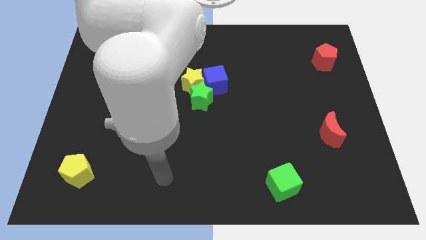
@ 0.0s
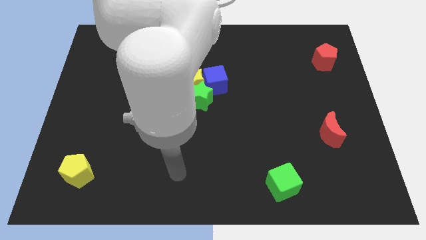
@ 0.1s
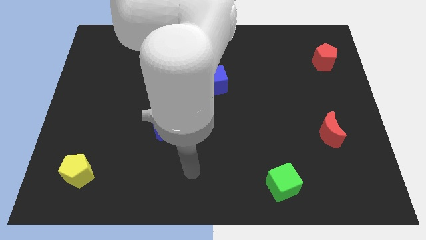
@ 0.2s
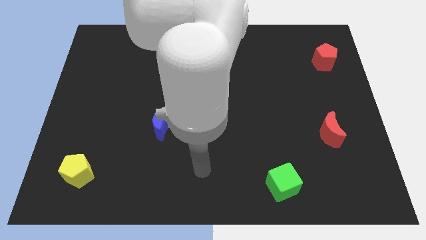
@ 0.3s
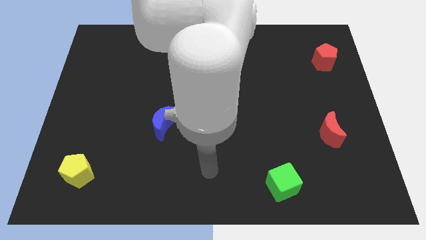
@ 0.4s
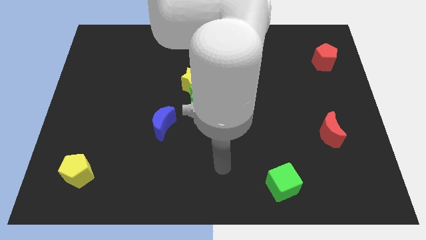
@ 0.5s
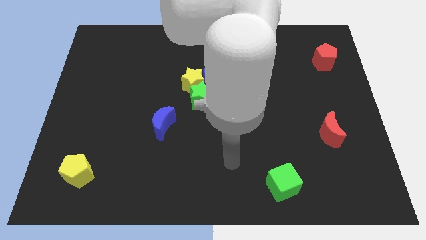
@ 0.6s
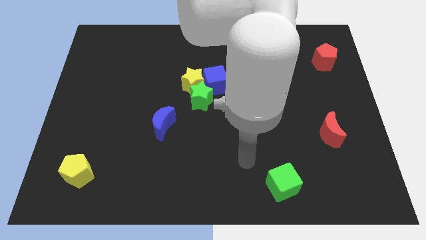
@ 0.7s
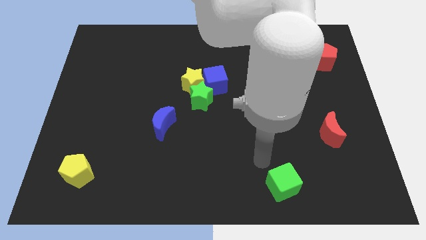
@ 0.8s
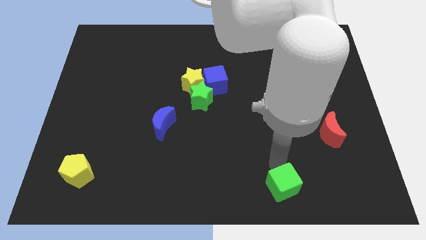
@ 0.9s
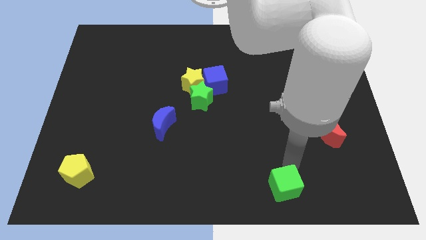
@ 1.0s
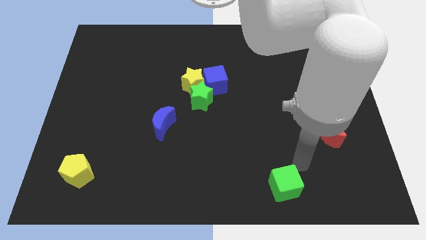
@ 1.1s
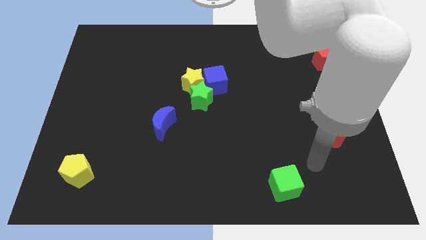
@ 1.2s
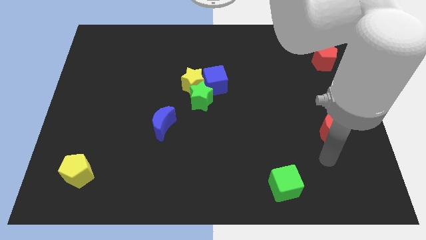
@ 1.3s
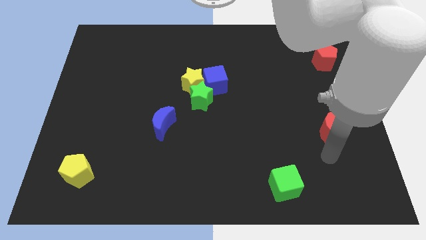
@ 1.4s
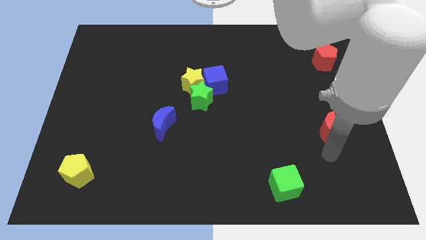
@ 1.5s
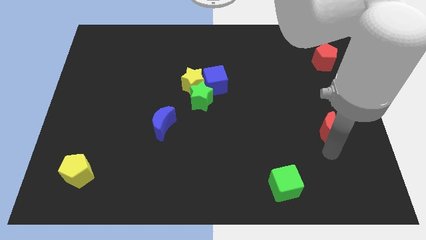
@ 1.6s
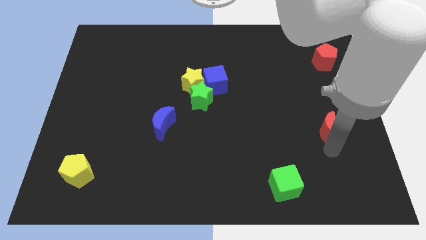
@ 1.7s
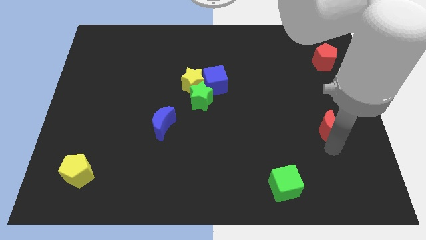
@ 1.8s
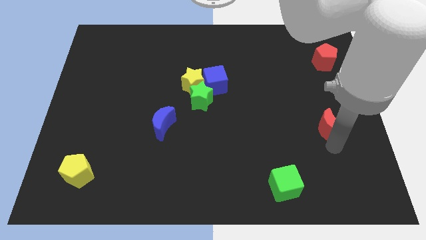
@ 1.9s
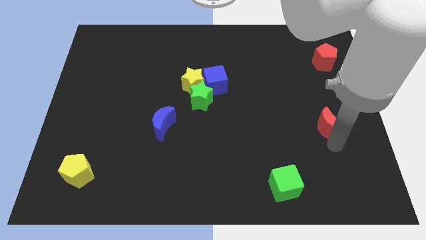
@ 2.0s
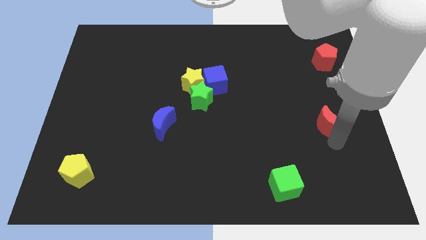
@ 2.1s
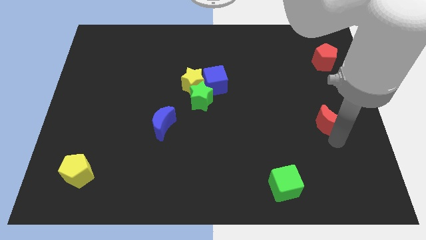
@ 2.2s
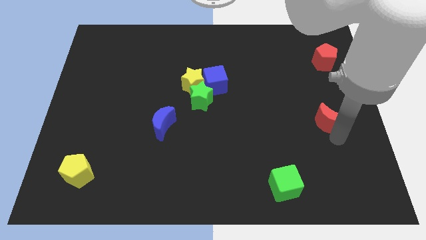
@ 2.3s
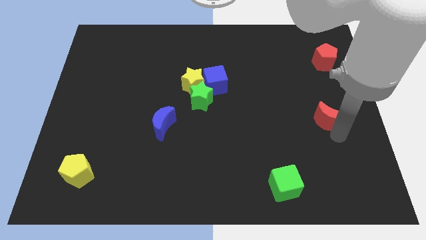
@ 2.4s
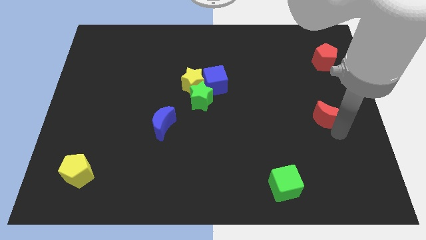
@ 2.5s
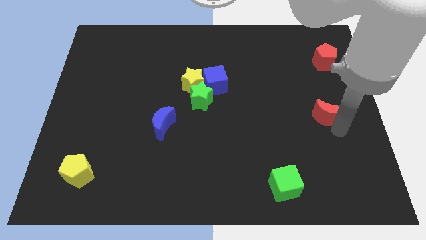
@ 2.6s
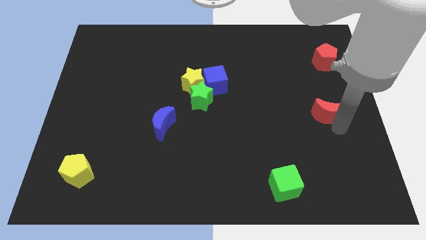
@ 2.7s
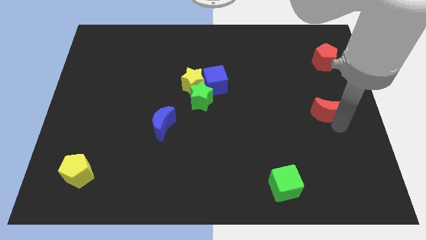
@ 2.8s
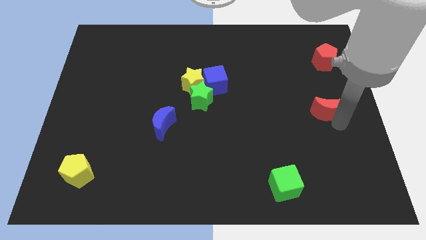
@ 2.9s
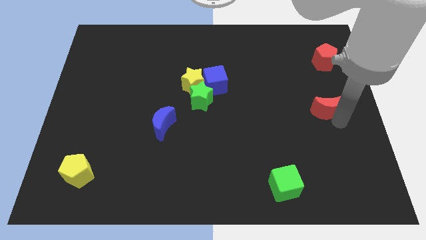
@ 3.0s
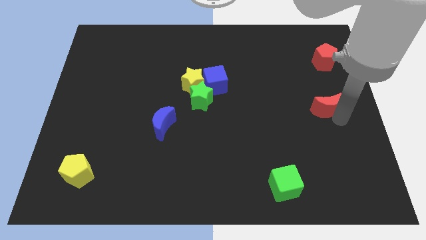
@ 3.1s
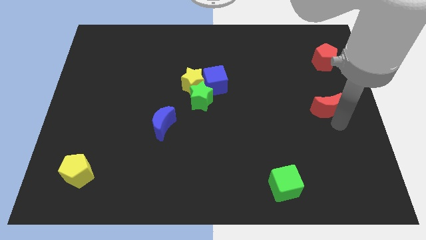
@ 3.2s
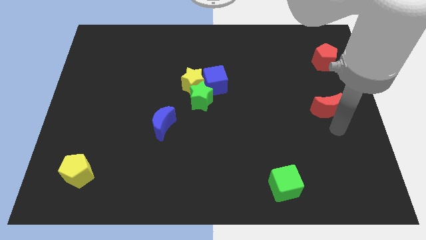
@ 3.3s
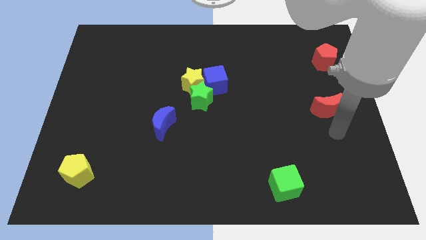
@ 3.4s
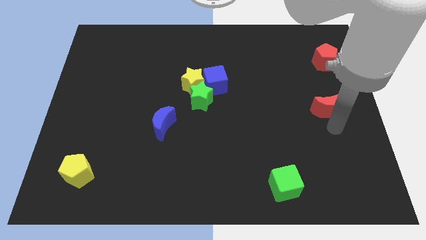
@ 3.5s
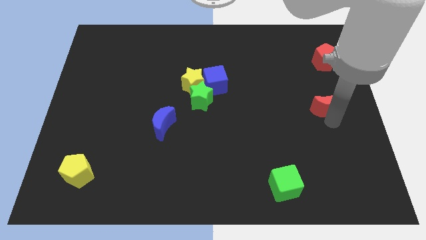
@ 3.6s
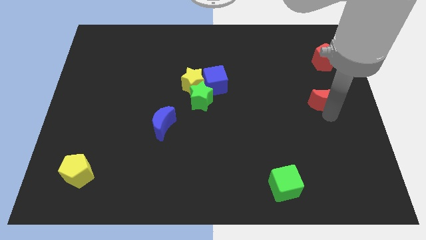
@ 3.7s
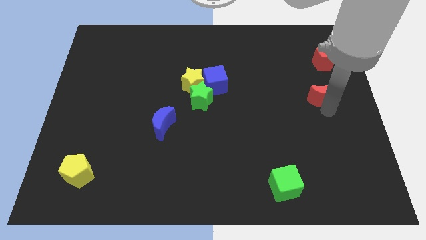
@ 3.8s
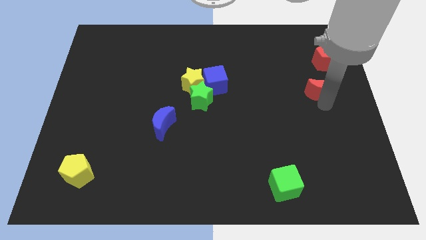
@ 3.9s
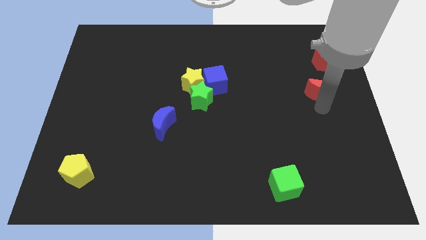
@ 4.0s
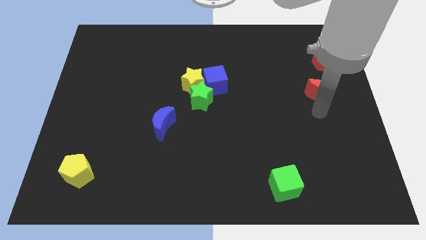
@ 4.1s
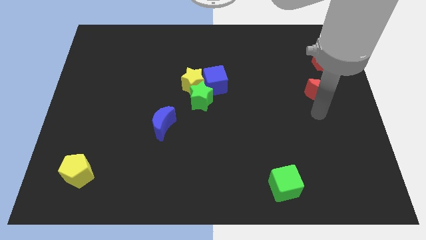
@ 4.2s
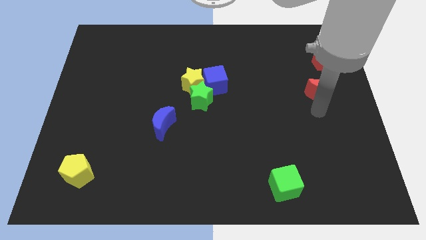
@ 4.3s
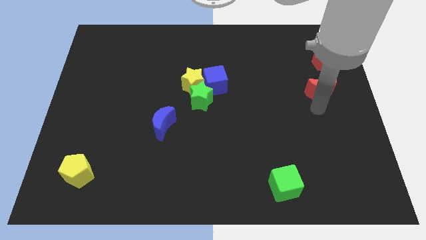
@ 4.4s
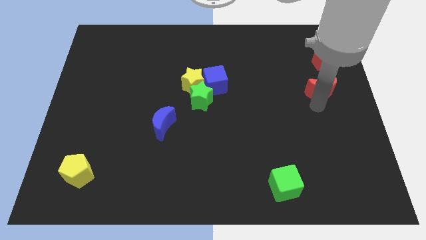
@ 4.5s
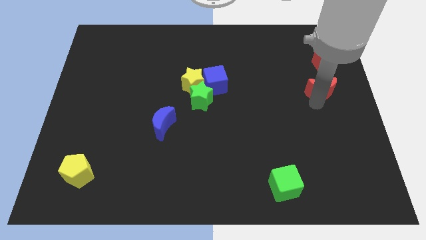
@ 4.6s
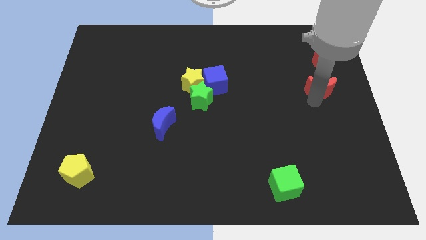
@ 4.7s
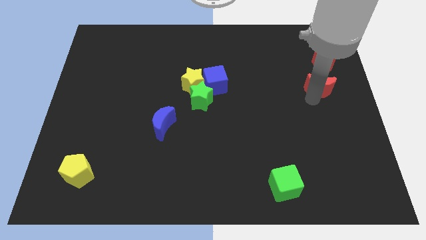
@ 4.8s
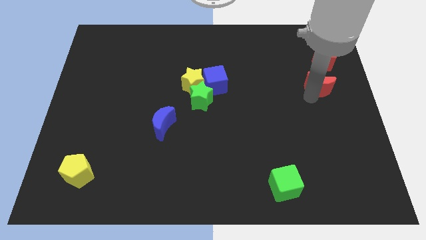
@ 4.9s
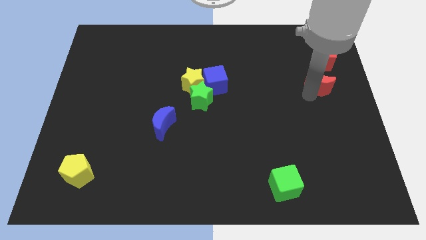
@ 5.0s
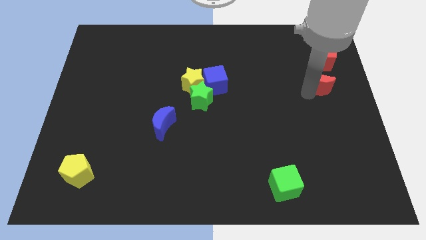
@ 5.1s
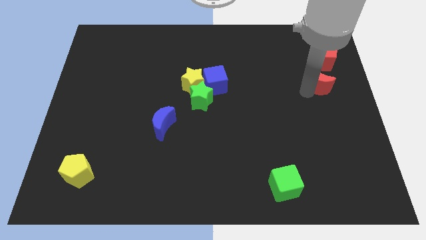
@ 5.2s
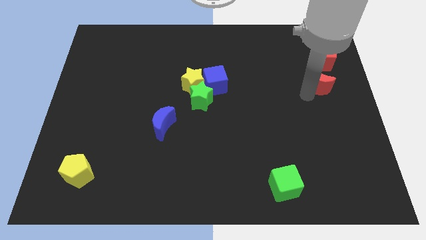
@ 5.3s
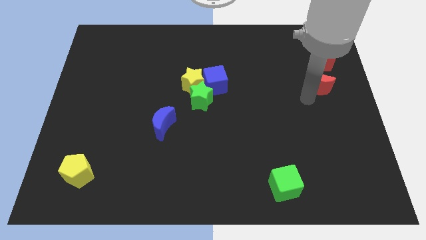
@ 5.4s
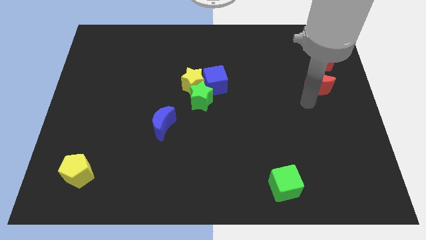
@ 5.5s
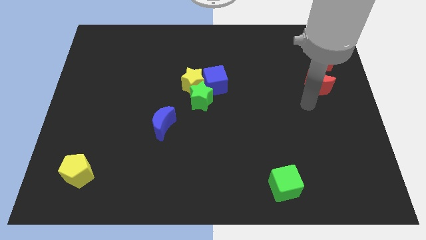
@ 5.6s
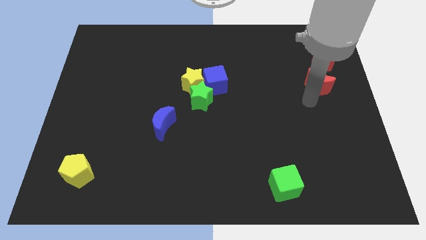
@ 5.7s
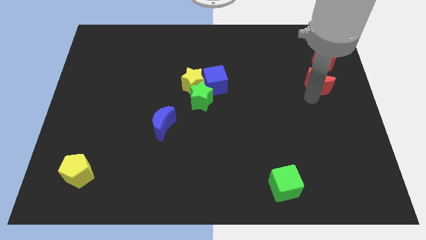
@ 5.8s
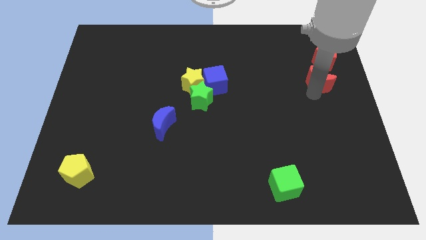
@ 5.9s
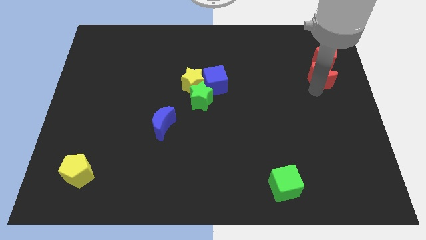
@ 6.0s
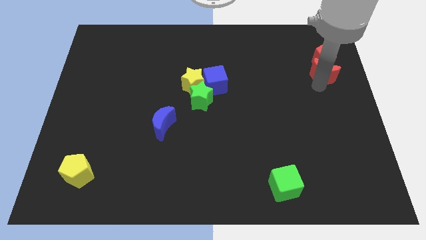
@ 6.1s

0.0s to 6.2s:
put the red moon towards the red pentagon

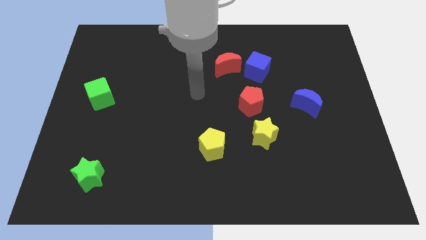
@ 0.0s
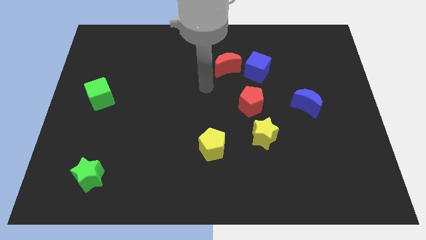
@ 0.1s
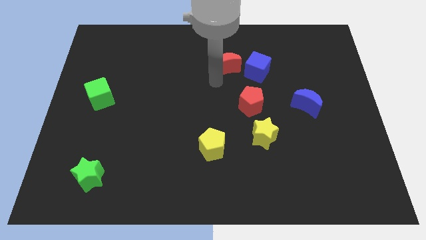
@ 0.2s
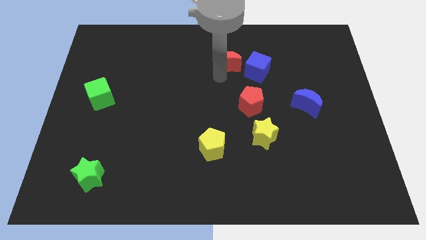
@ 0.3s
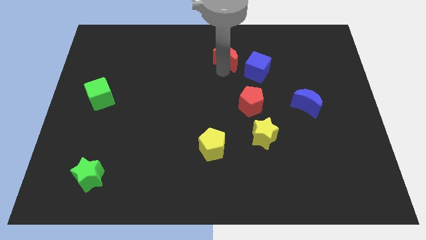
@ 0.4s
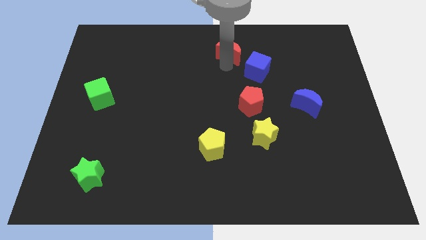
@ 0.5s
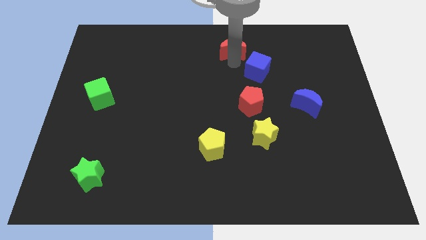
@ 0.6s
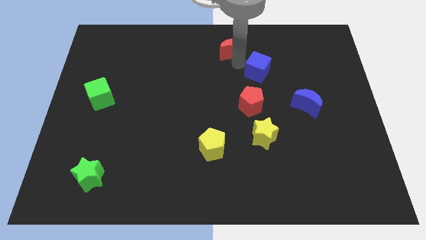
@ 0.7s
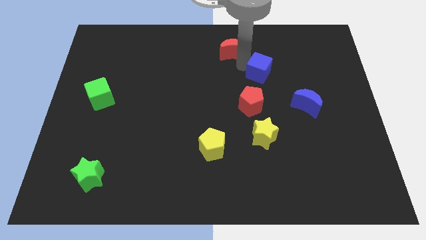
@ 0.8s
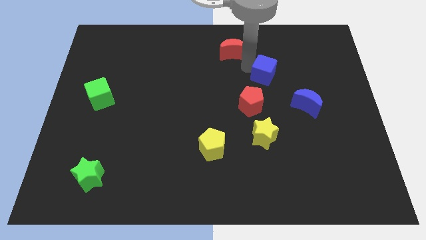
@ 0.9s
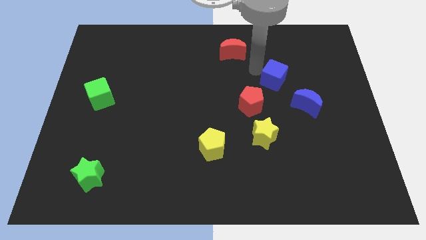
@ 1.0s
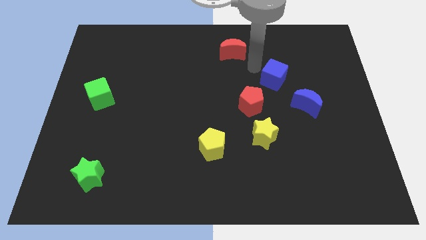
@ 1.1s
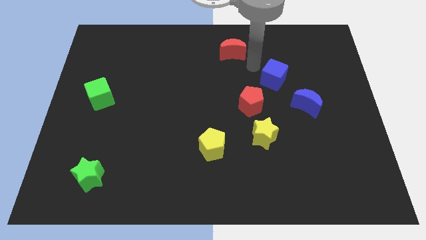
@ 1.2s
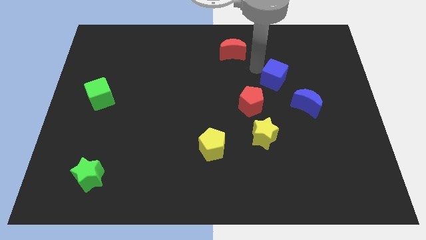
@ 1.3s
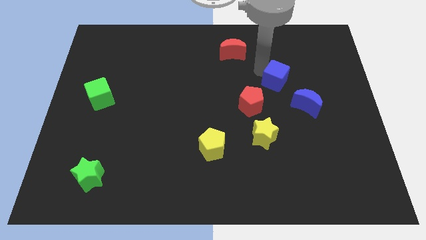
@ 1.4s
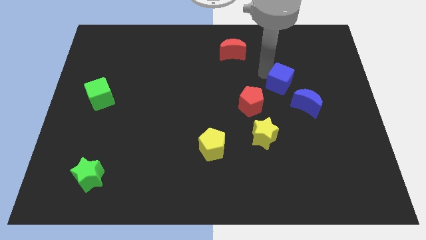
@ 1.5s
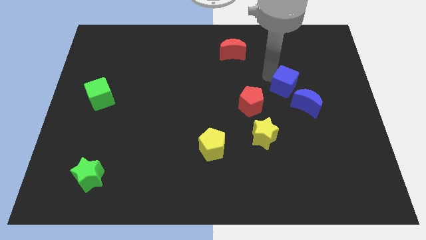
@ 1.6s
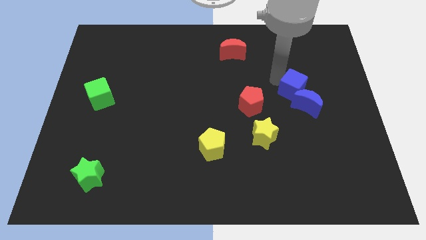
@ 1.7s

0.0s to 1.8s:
slide the blue cube close to the blue moon
